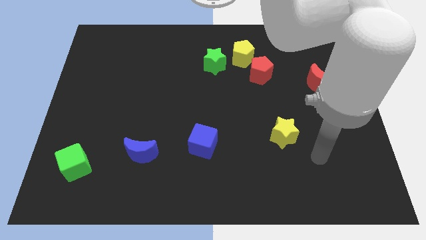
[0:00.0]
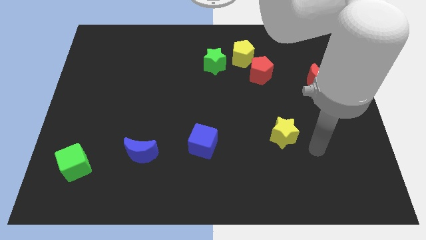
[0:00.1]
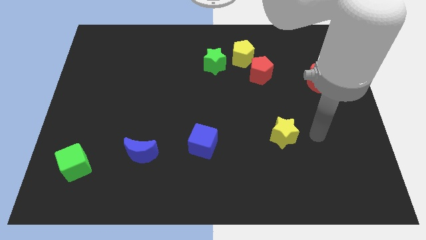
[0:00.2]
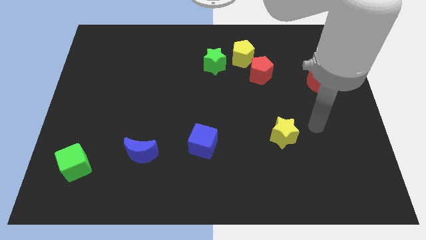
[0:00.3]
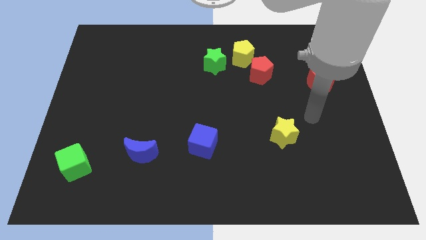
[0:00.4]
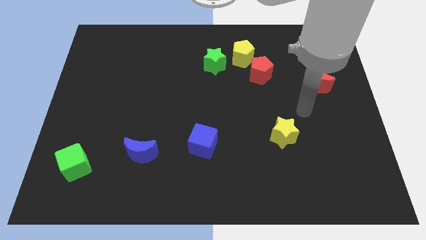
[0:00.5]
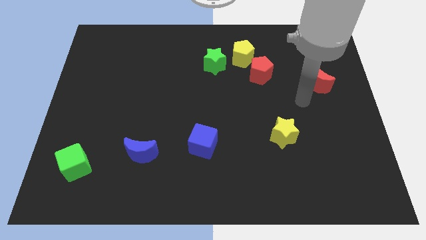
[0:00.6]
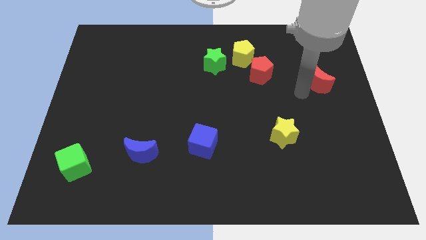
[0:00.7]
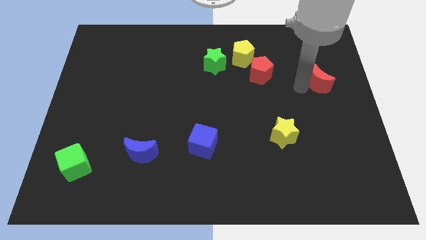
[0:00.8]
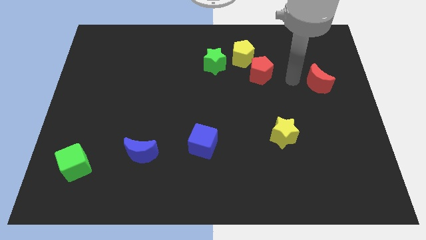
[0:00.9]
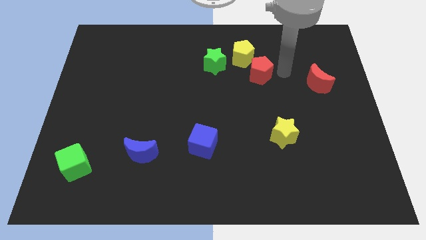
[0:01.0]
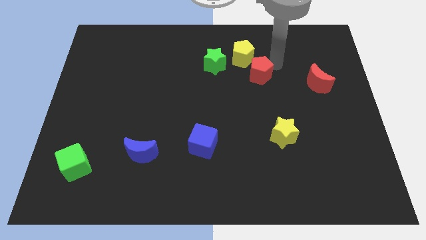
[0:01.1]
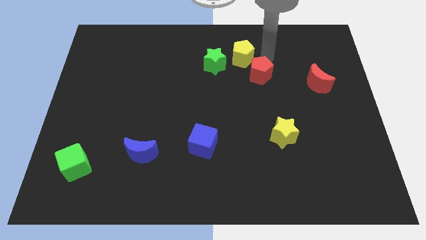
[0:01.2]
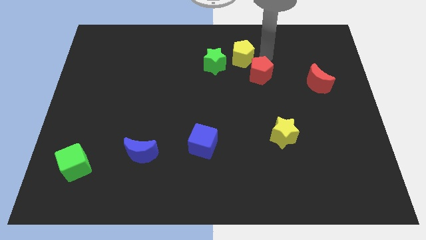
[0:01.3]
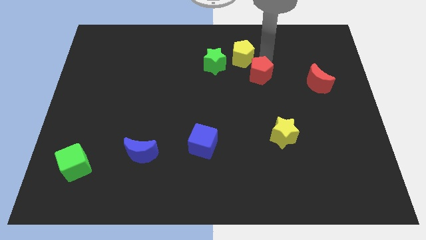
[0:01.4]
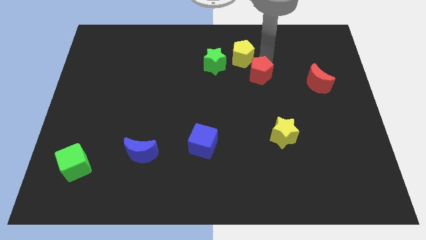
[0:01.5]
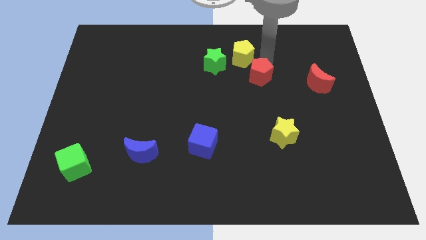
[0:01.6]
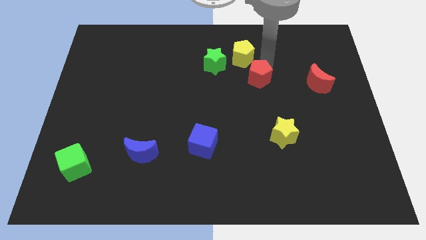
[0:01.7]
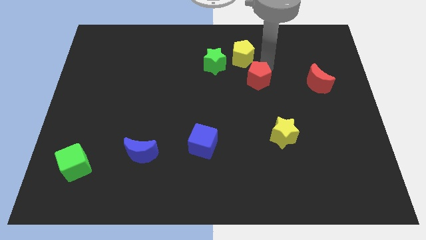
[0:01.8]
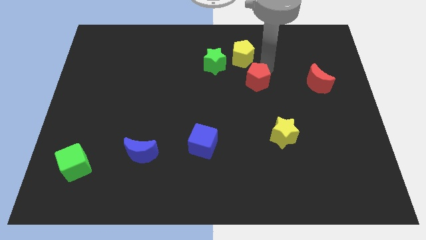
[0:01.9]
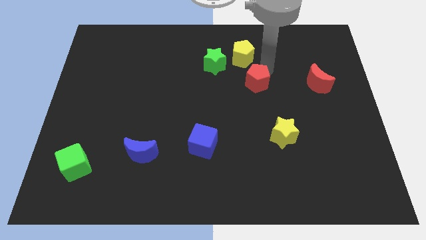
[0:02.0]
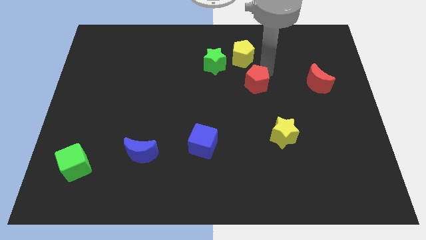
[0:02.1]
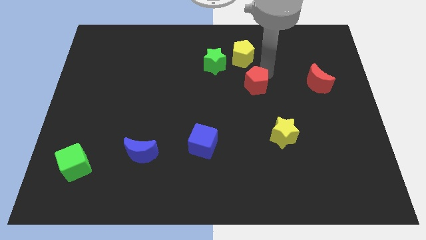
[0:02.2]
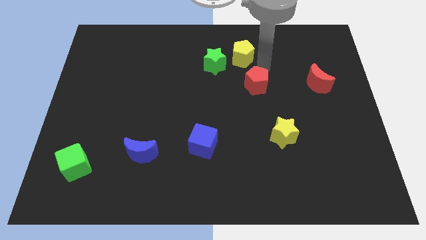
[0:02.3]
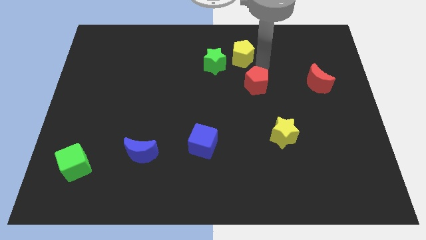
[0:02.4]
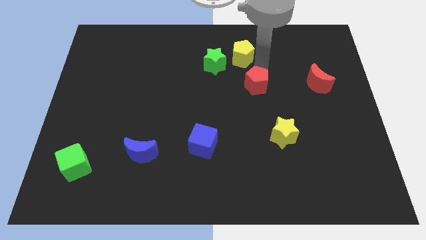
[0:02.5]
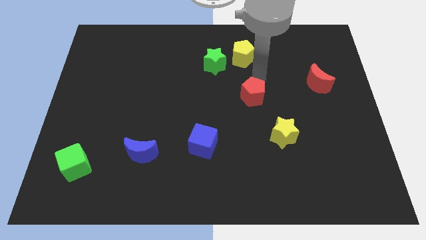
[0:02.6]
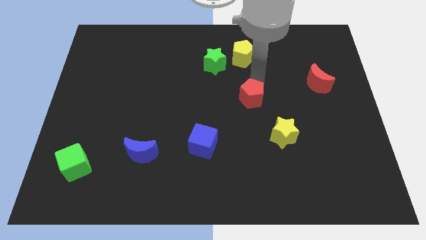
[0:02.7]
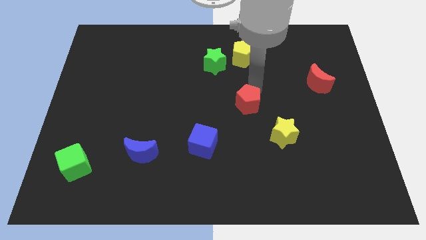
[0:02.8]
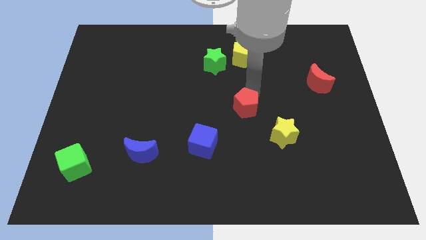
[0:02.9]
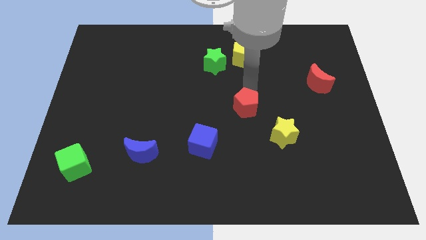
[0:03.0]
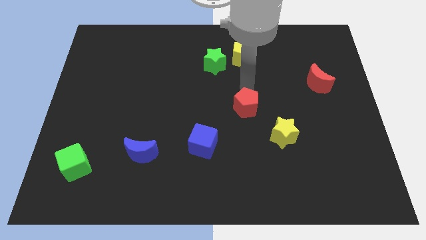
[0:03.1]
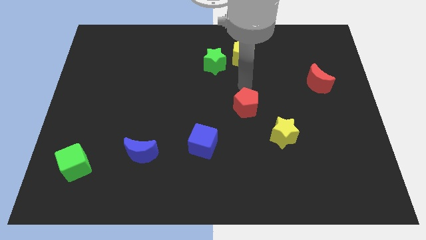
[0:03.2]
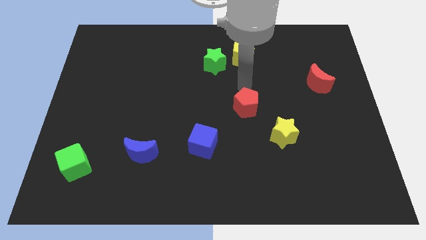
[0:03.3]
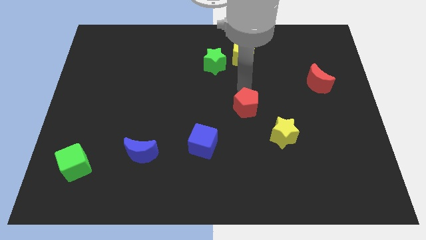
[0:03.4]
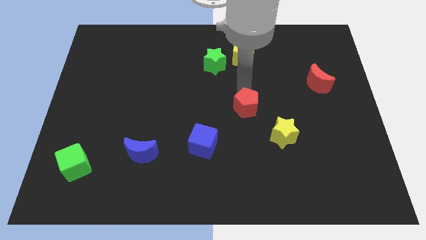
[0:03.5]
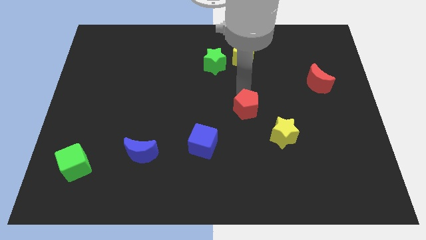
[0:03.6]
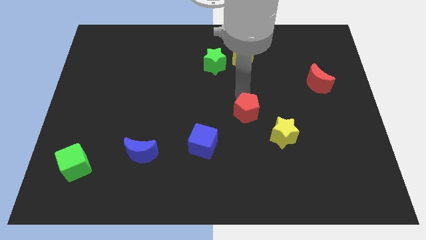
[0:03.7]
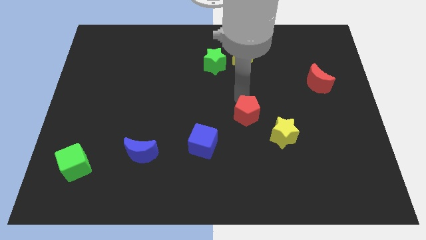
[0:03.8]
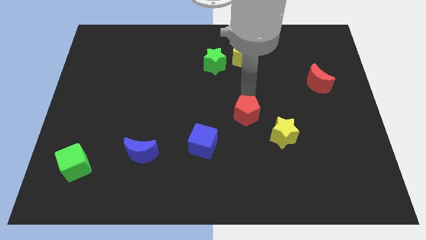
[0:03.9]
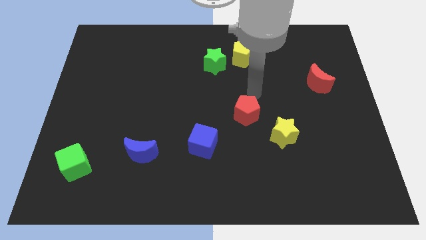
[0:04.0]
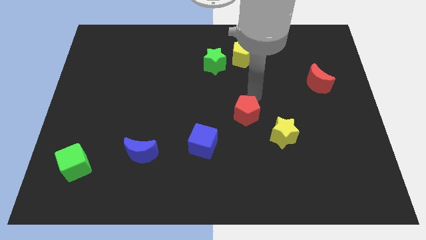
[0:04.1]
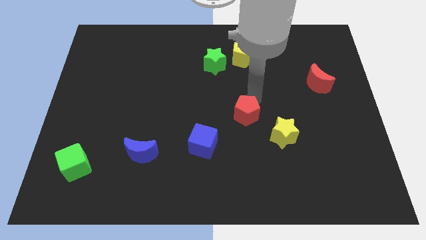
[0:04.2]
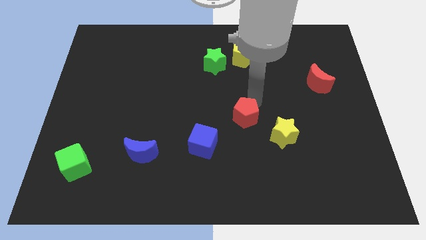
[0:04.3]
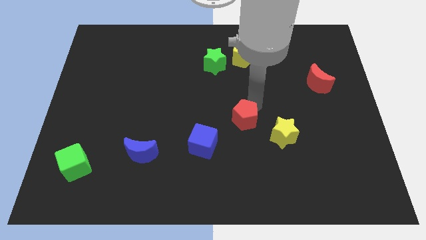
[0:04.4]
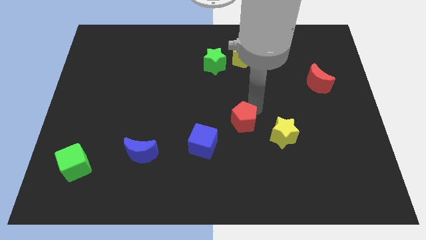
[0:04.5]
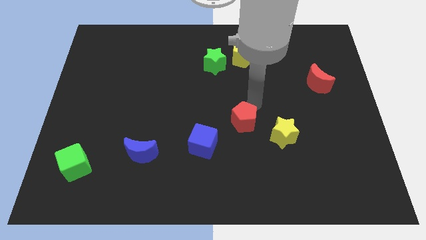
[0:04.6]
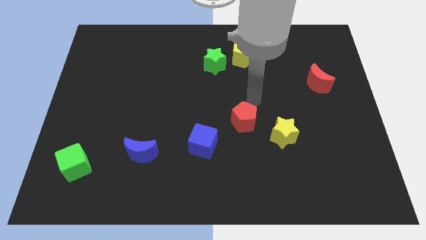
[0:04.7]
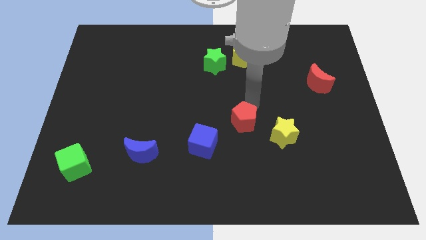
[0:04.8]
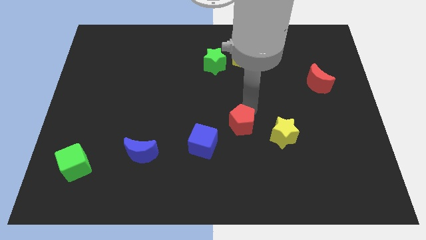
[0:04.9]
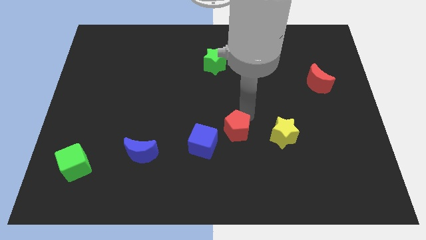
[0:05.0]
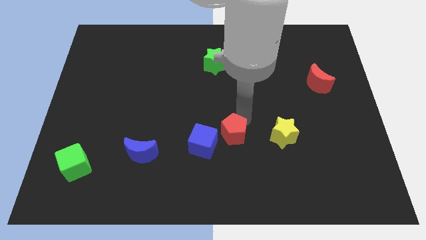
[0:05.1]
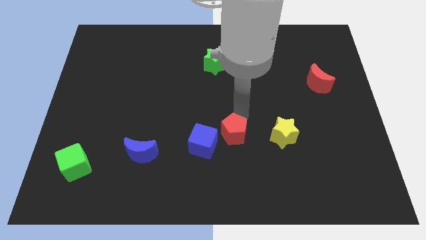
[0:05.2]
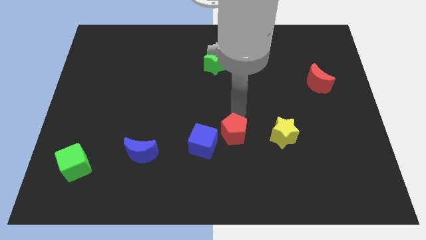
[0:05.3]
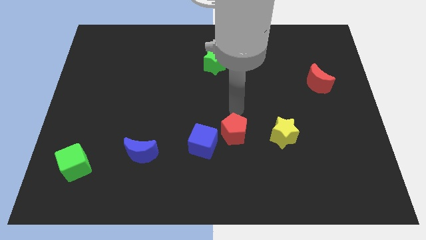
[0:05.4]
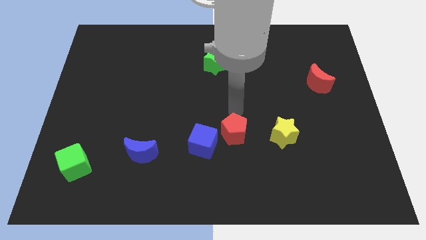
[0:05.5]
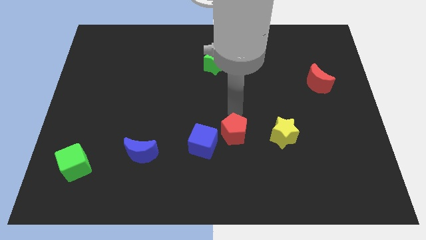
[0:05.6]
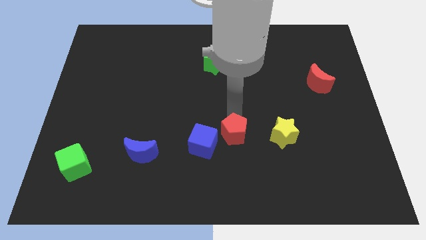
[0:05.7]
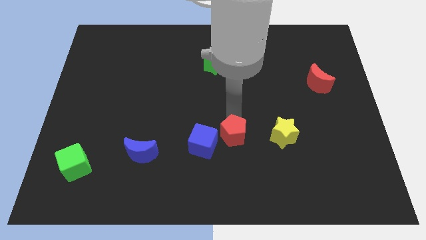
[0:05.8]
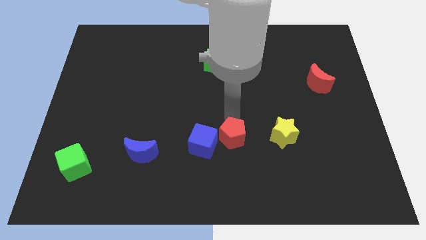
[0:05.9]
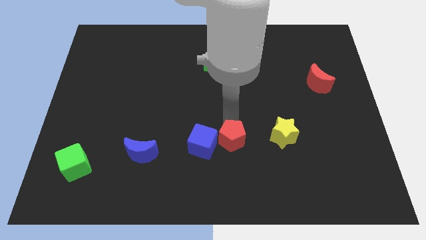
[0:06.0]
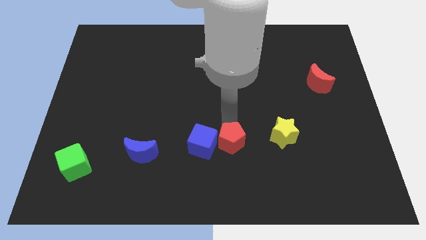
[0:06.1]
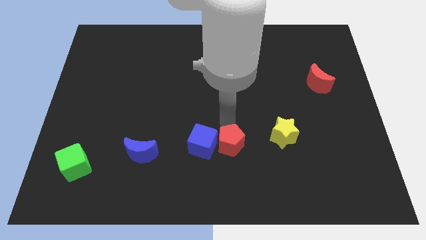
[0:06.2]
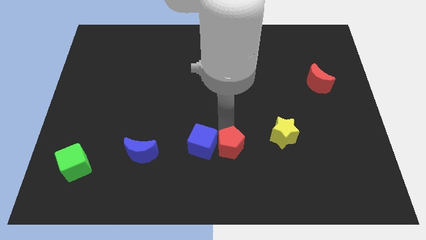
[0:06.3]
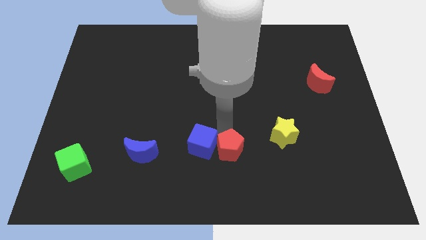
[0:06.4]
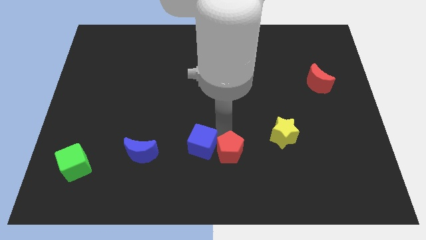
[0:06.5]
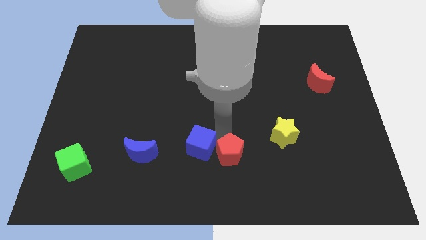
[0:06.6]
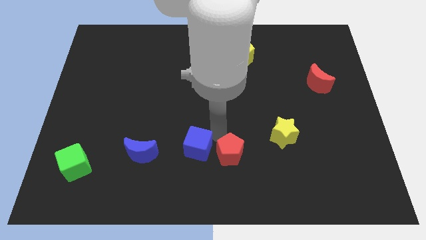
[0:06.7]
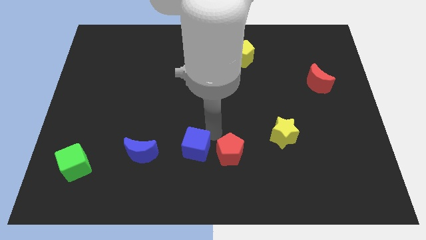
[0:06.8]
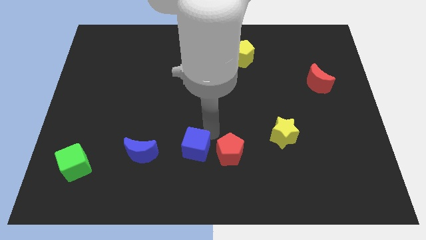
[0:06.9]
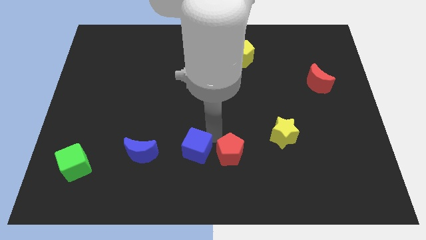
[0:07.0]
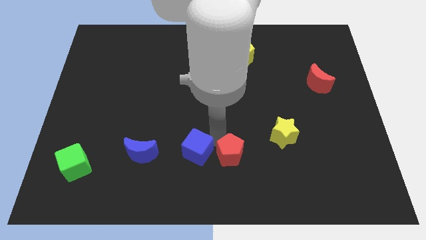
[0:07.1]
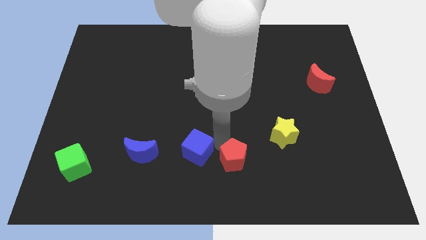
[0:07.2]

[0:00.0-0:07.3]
put the red pentagon to the bottom
